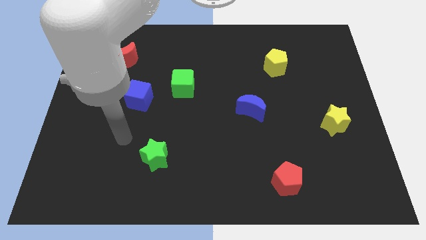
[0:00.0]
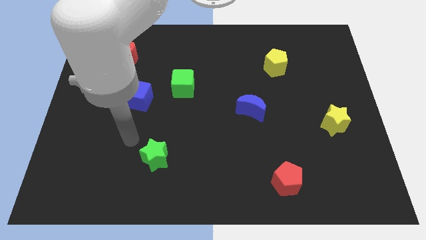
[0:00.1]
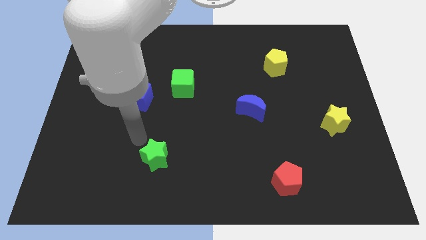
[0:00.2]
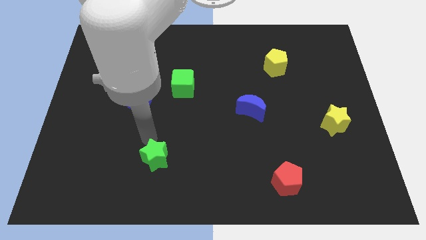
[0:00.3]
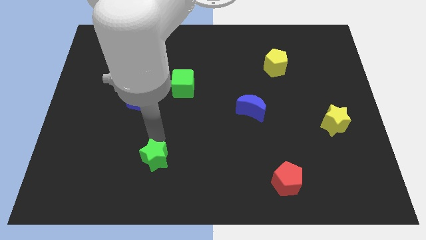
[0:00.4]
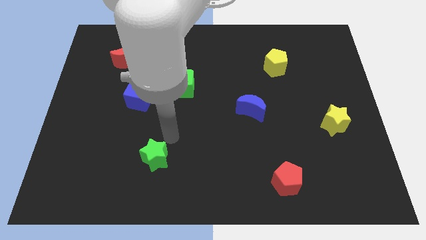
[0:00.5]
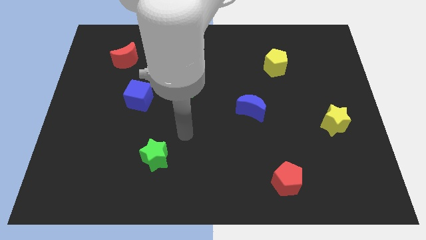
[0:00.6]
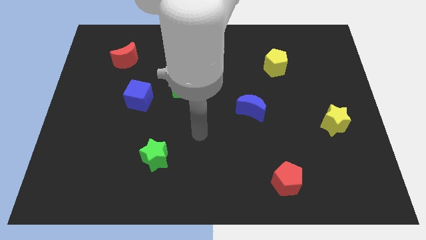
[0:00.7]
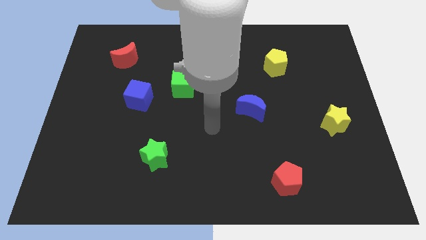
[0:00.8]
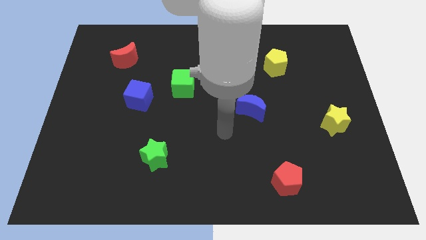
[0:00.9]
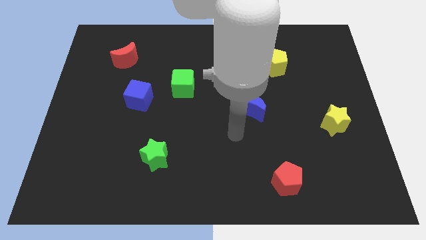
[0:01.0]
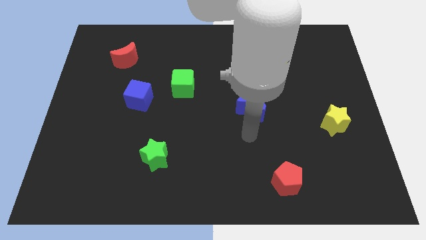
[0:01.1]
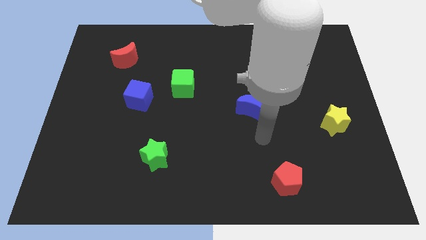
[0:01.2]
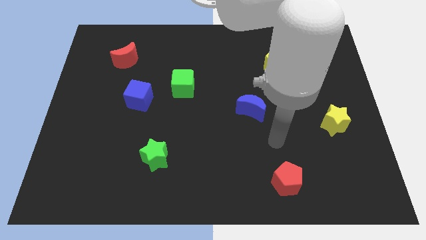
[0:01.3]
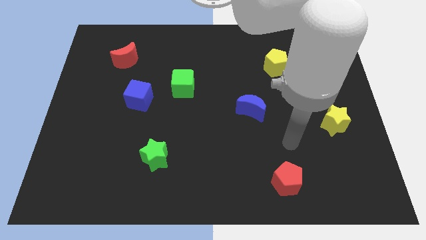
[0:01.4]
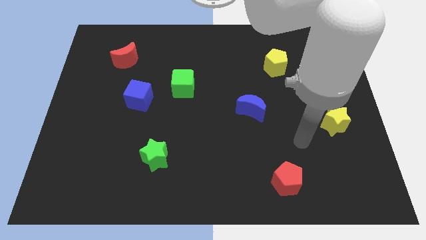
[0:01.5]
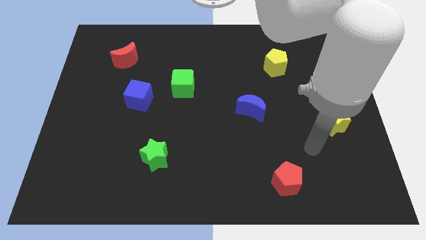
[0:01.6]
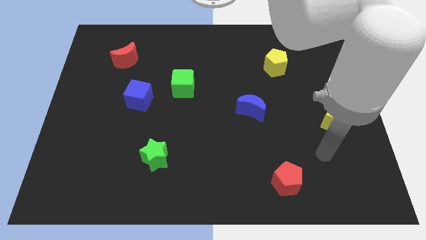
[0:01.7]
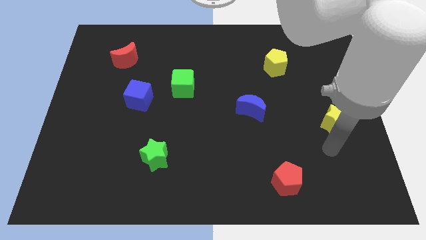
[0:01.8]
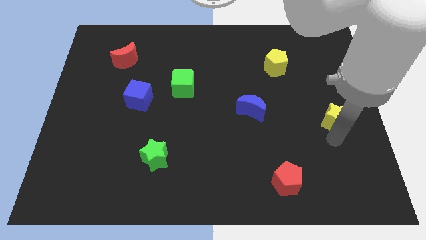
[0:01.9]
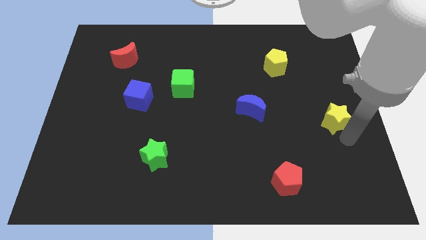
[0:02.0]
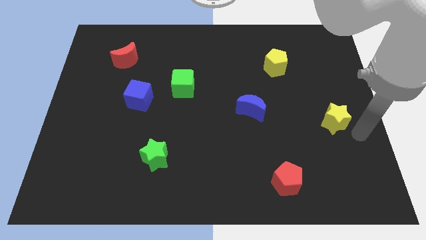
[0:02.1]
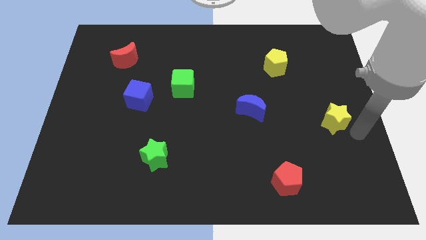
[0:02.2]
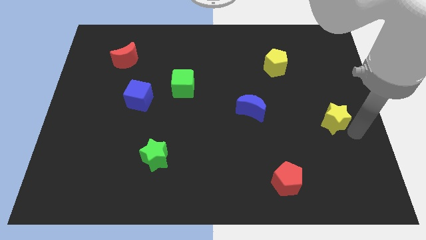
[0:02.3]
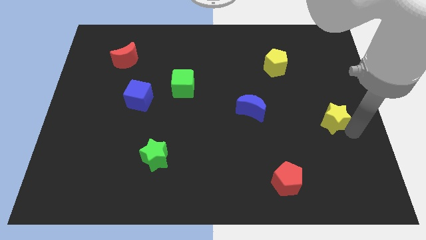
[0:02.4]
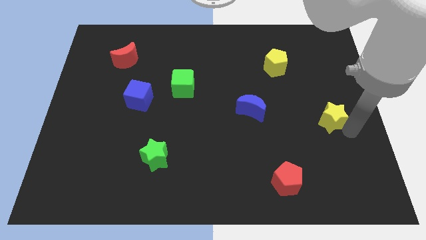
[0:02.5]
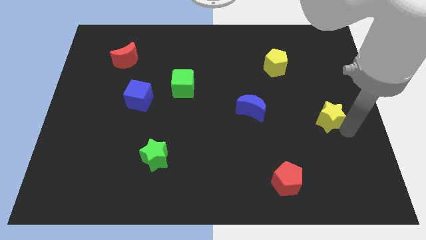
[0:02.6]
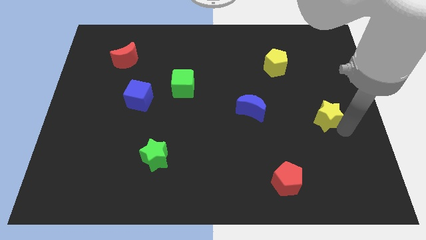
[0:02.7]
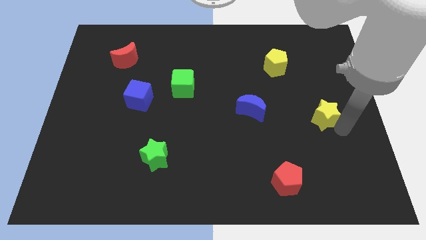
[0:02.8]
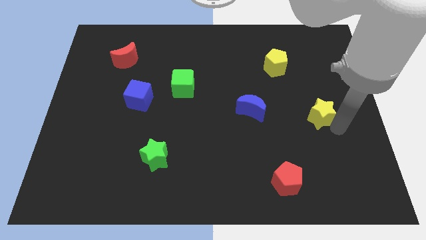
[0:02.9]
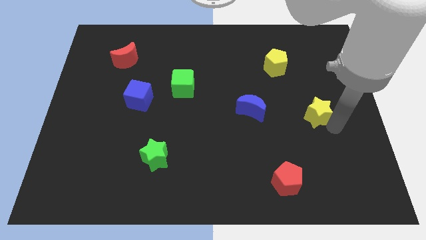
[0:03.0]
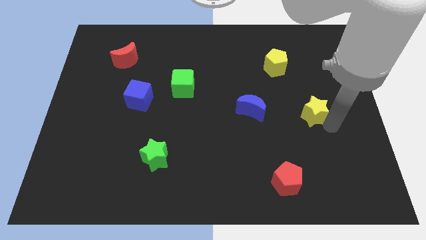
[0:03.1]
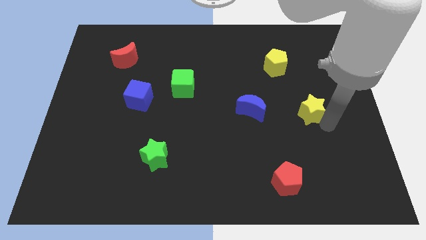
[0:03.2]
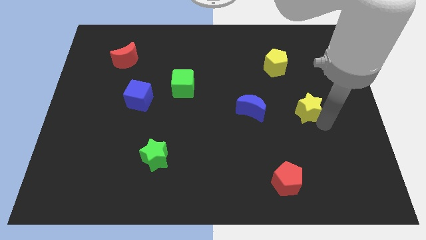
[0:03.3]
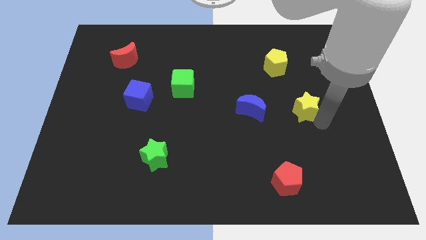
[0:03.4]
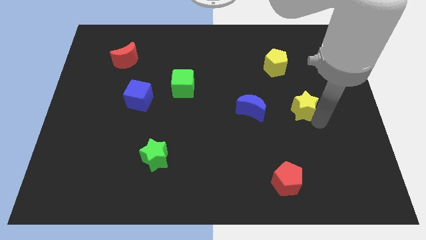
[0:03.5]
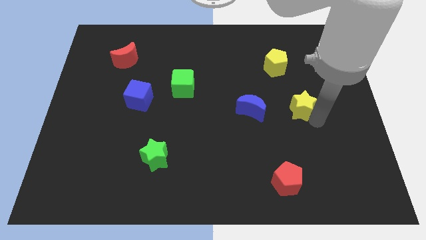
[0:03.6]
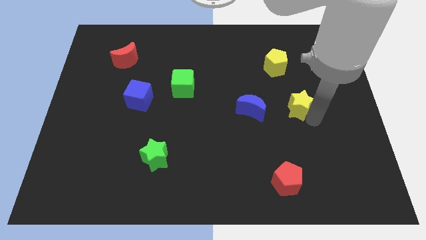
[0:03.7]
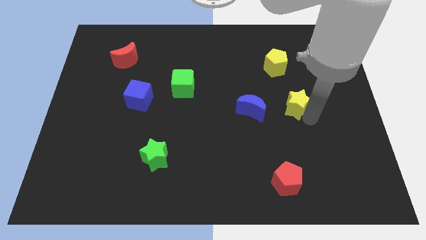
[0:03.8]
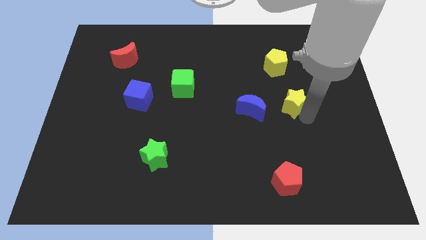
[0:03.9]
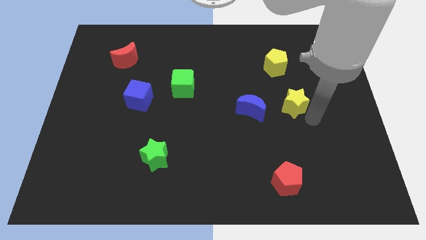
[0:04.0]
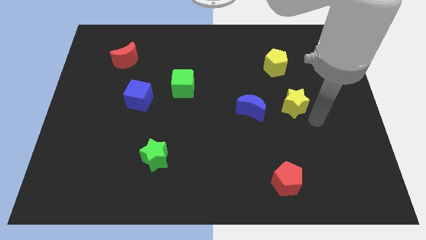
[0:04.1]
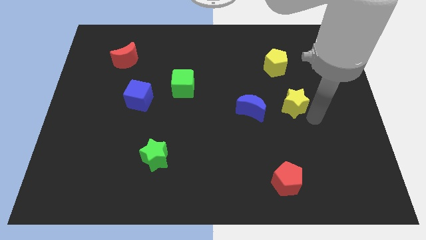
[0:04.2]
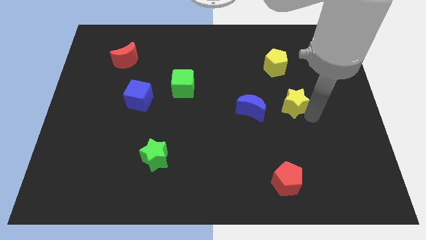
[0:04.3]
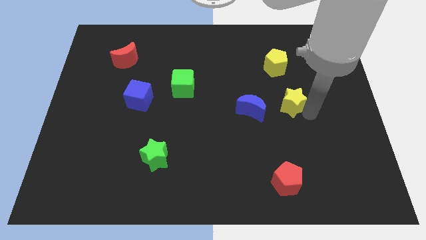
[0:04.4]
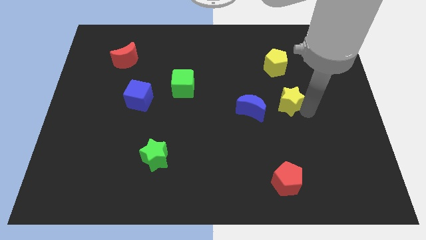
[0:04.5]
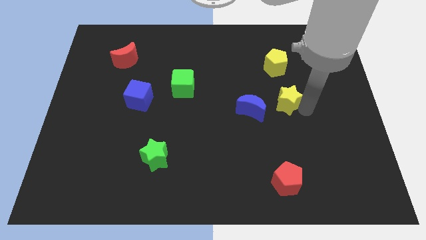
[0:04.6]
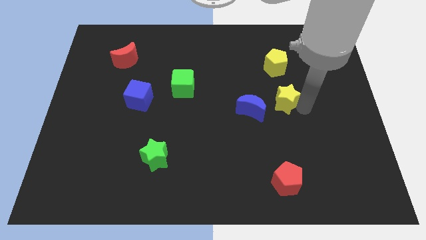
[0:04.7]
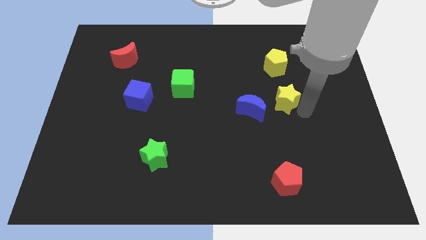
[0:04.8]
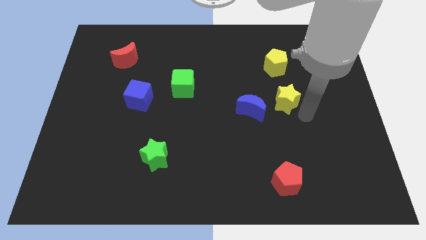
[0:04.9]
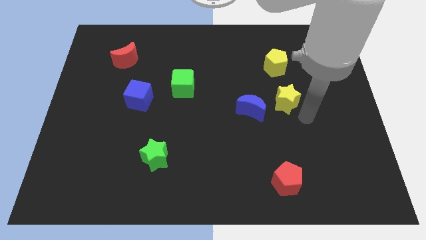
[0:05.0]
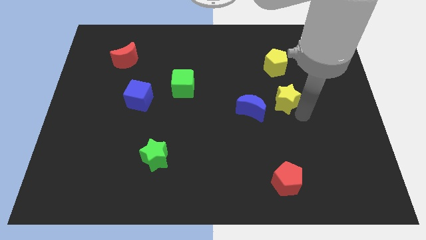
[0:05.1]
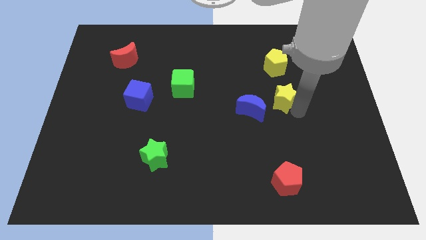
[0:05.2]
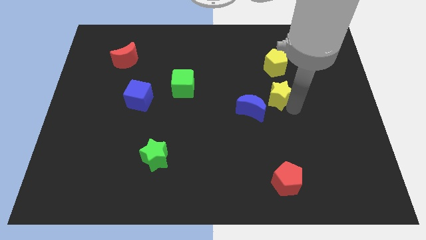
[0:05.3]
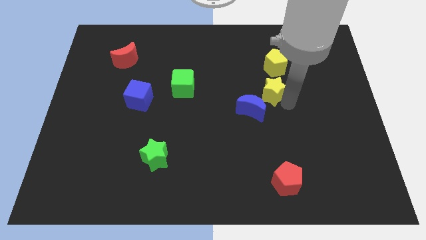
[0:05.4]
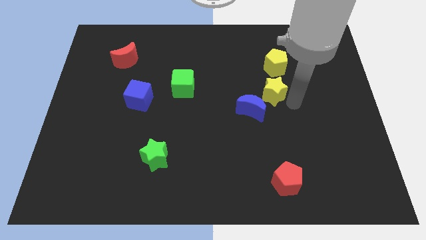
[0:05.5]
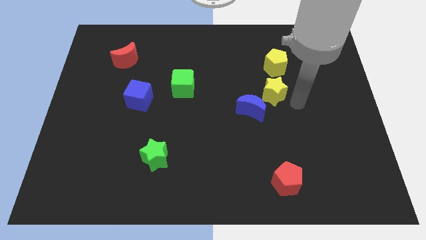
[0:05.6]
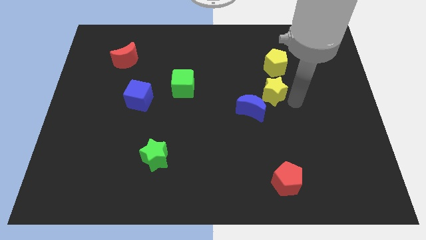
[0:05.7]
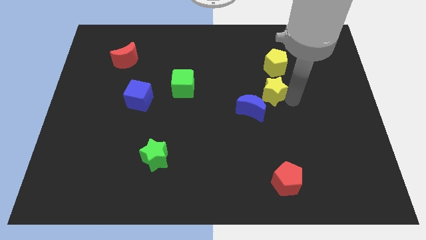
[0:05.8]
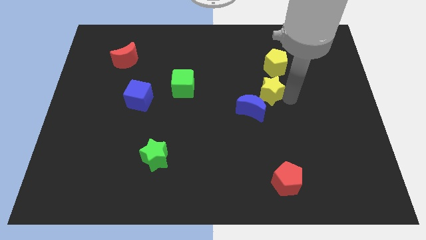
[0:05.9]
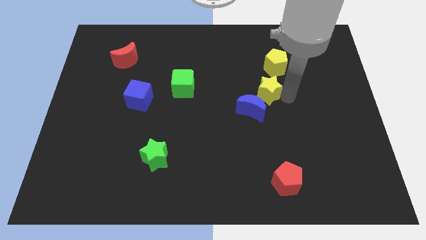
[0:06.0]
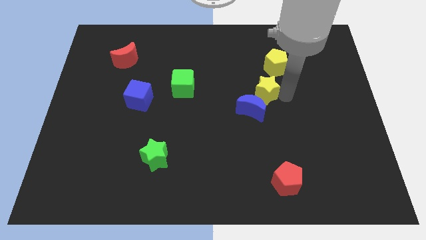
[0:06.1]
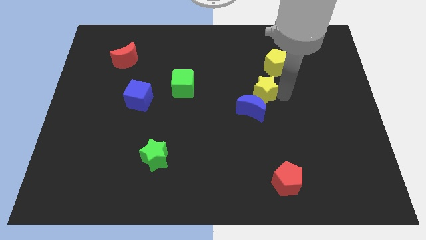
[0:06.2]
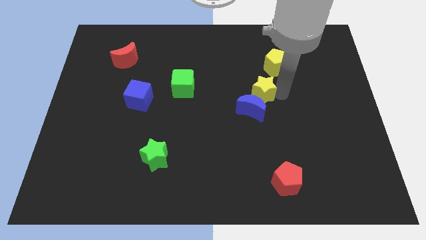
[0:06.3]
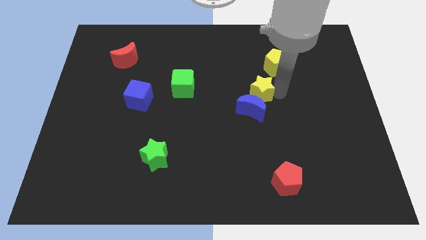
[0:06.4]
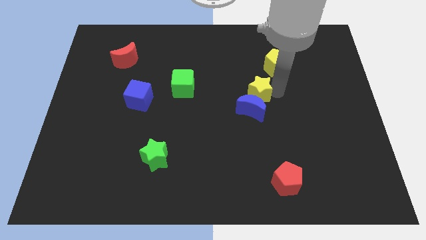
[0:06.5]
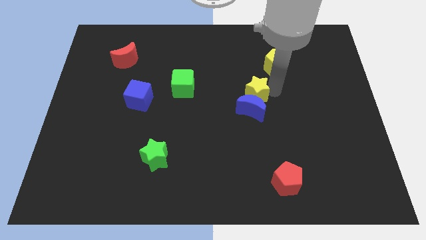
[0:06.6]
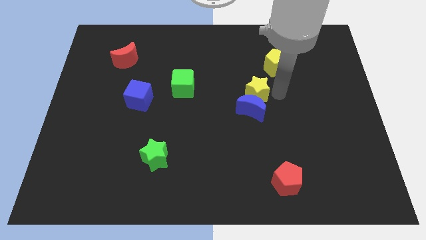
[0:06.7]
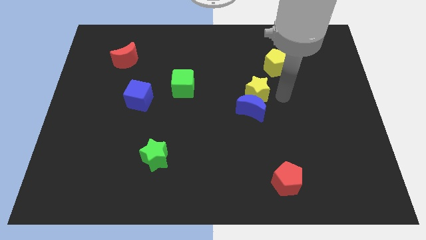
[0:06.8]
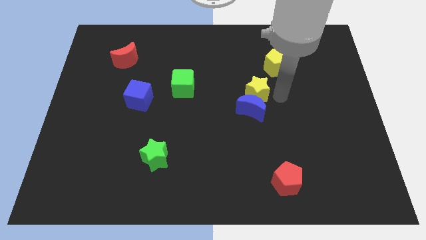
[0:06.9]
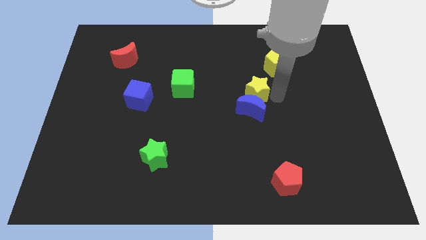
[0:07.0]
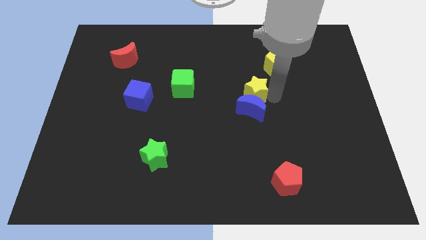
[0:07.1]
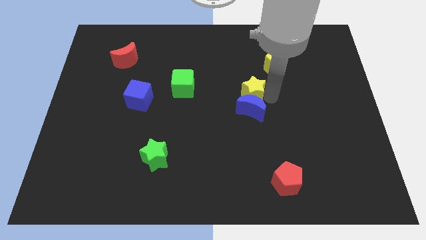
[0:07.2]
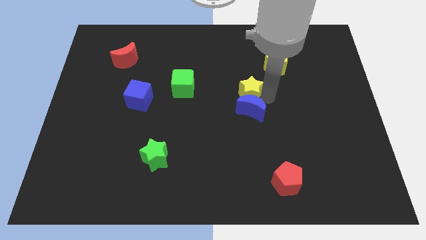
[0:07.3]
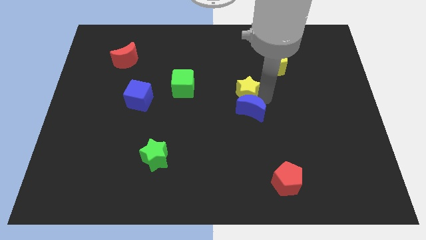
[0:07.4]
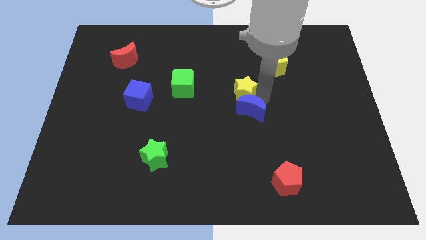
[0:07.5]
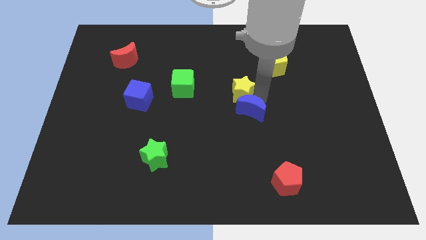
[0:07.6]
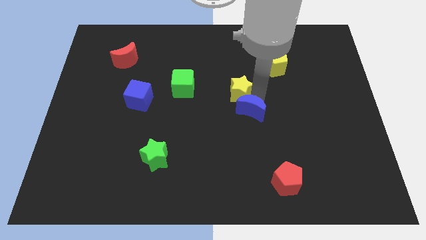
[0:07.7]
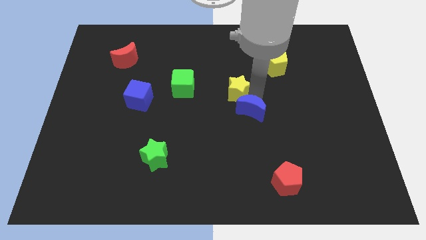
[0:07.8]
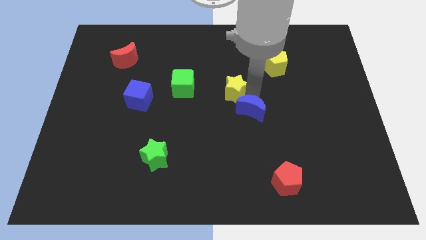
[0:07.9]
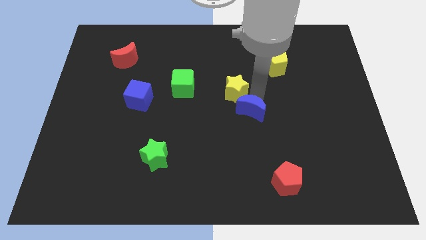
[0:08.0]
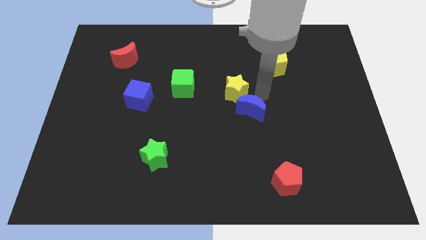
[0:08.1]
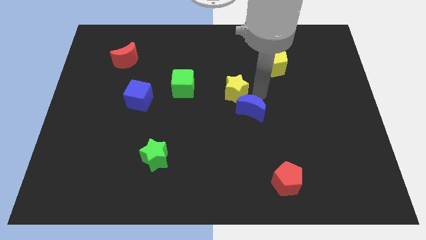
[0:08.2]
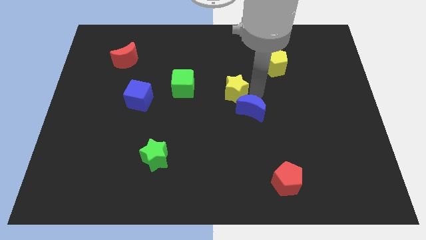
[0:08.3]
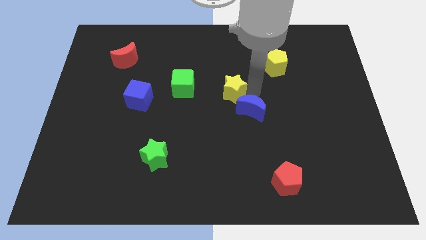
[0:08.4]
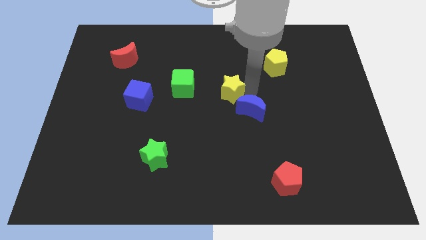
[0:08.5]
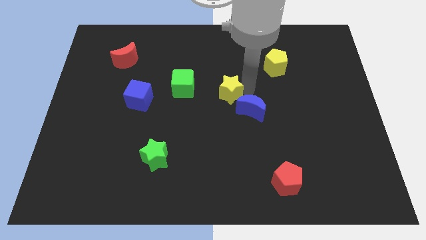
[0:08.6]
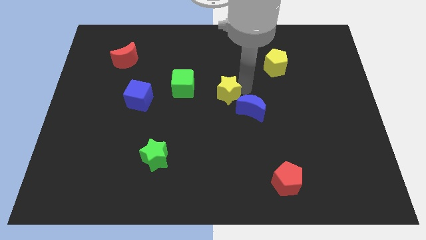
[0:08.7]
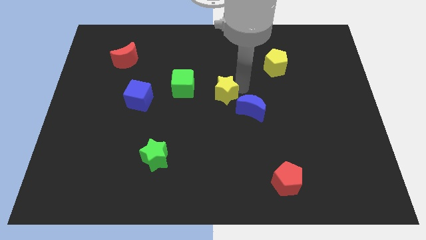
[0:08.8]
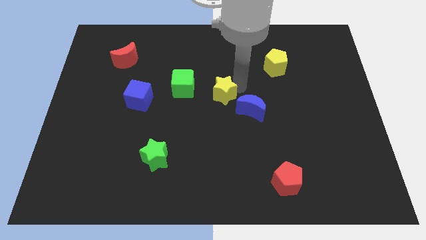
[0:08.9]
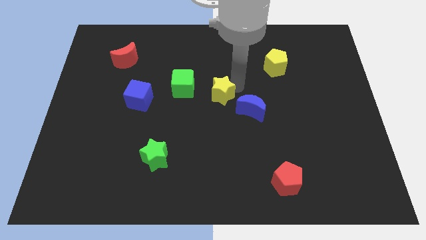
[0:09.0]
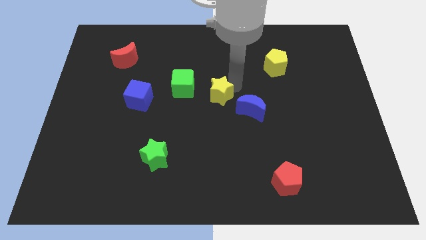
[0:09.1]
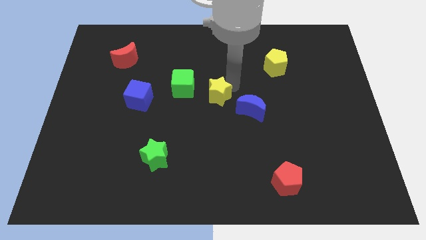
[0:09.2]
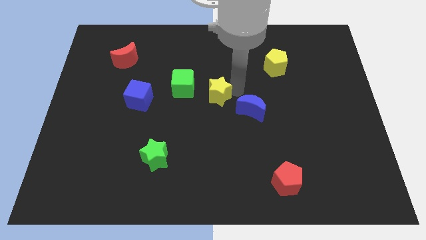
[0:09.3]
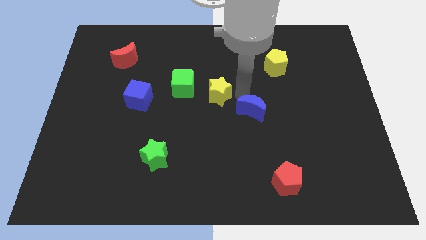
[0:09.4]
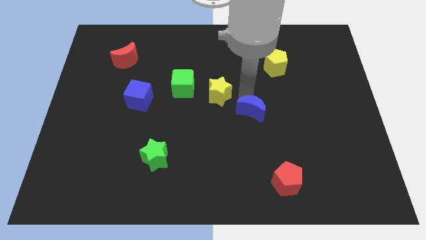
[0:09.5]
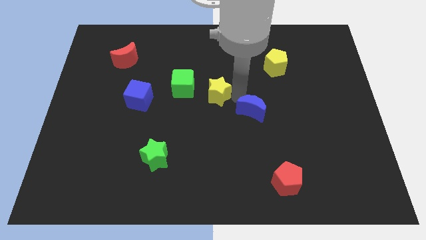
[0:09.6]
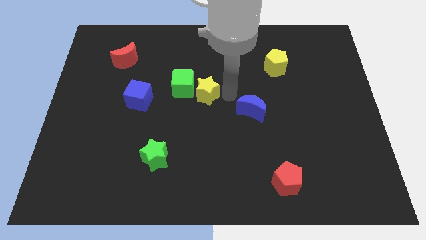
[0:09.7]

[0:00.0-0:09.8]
slide the yellow star towards the green cube
